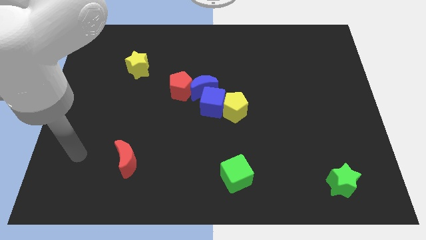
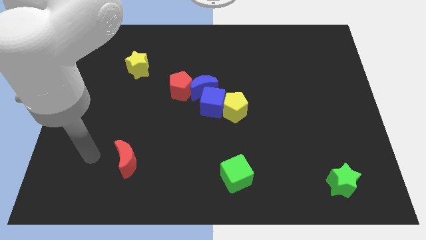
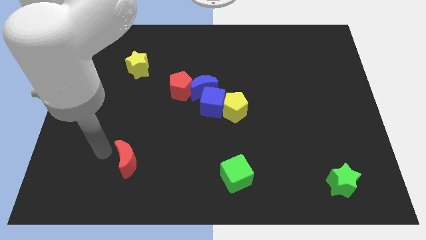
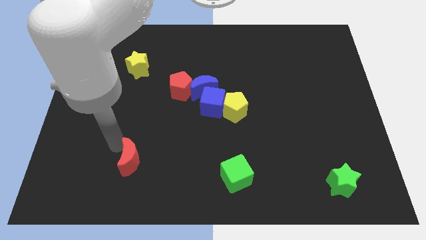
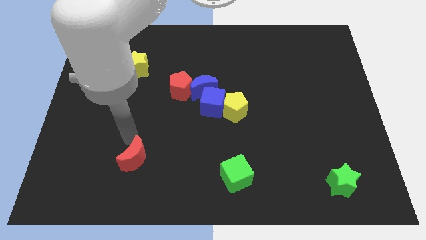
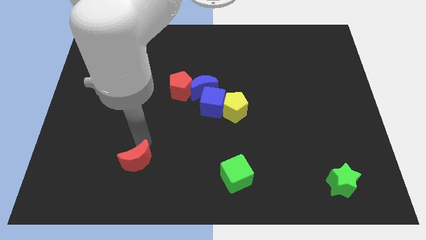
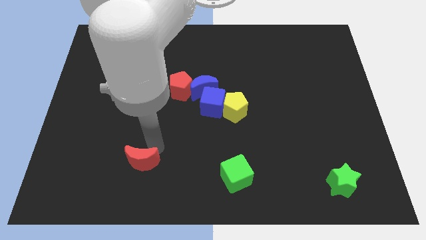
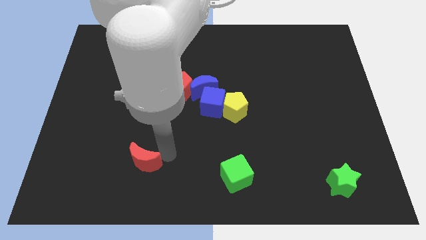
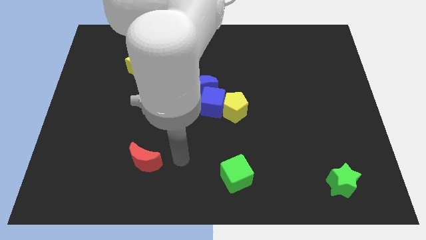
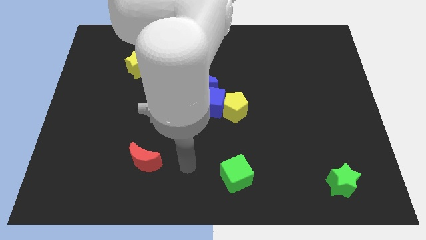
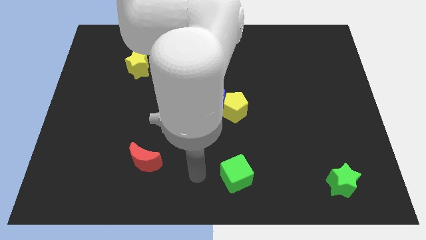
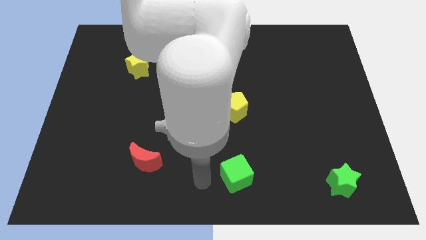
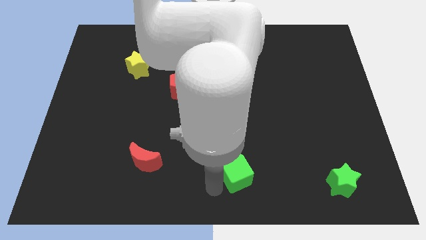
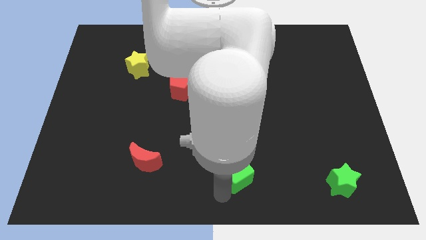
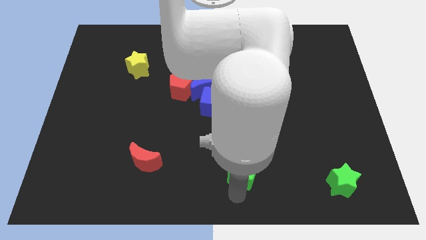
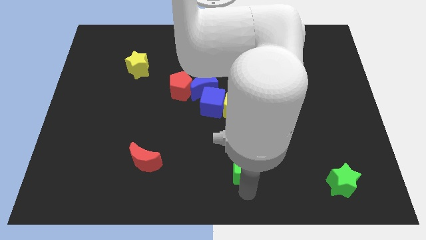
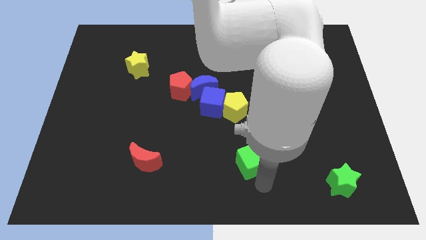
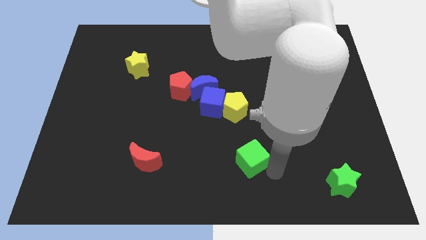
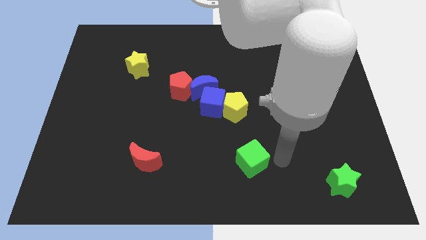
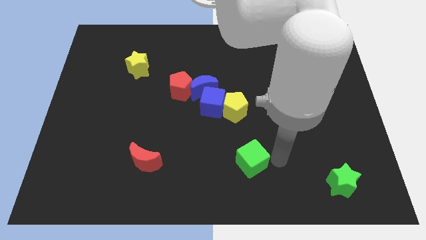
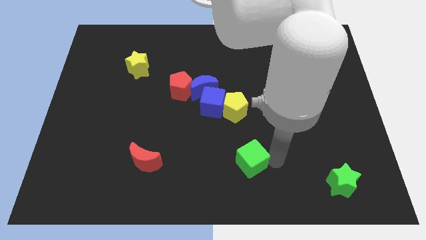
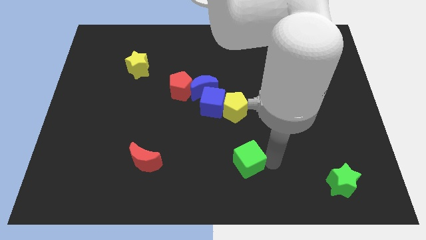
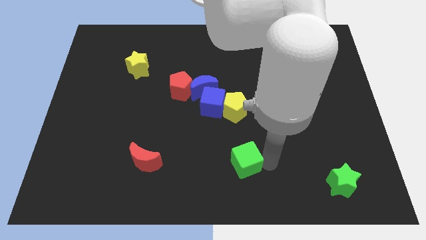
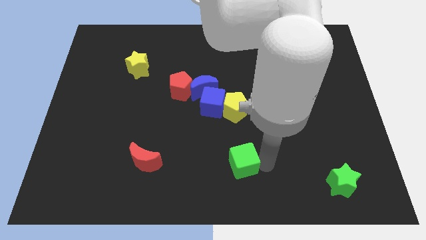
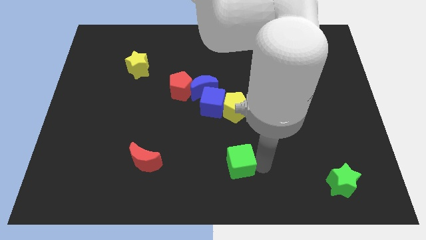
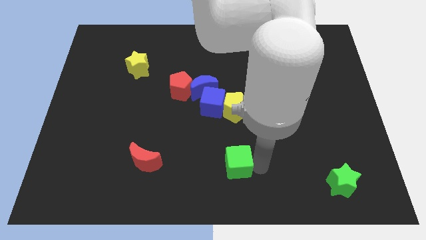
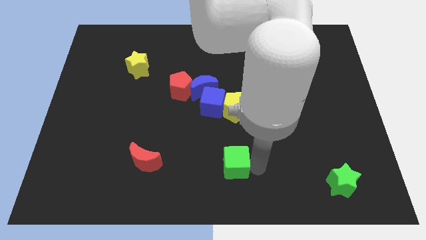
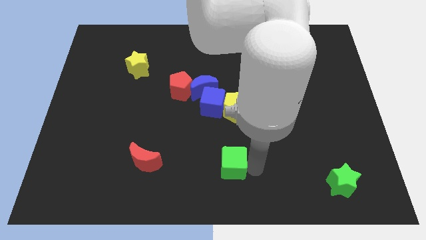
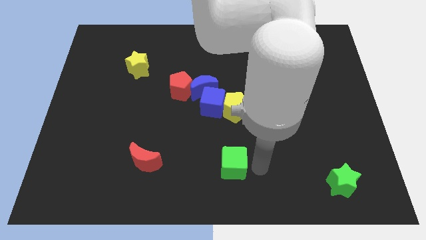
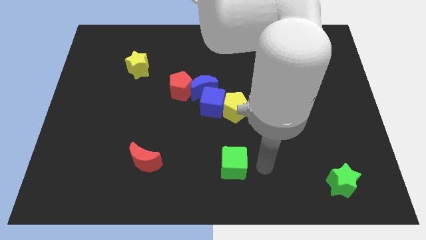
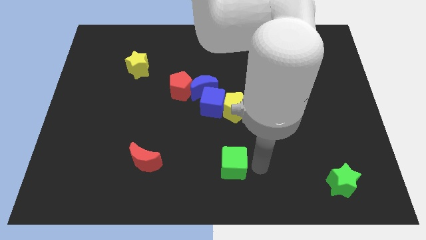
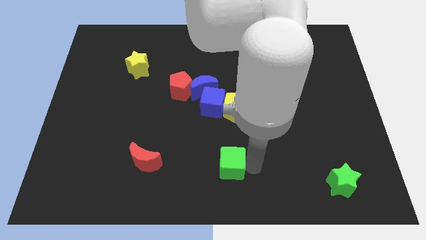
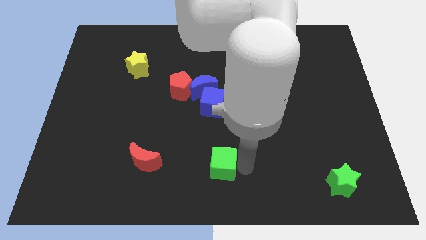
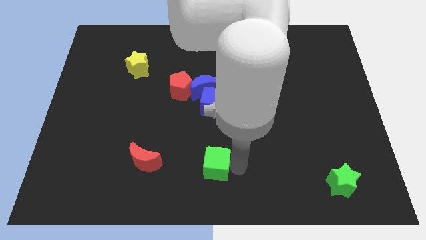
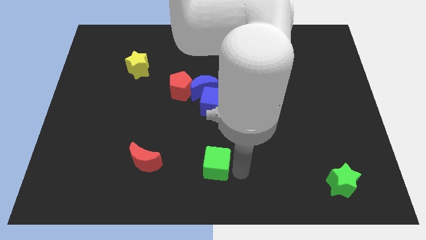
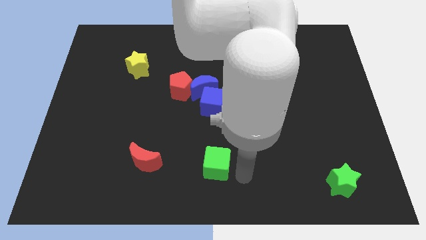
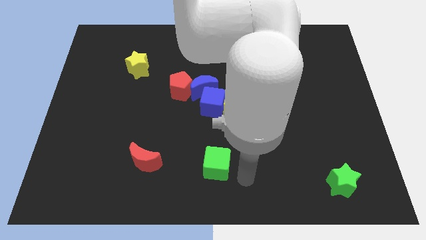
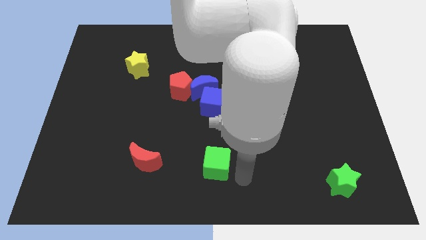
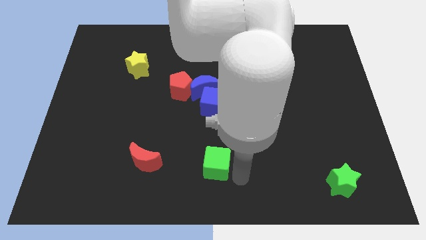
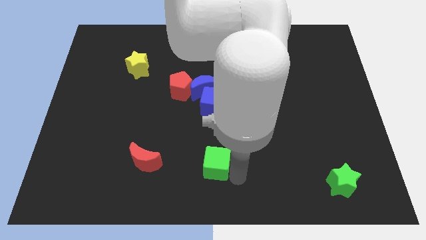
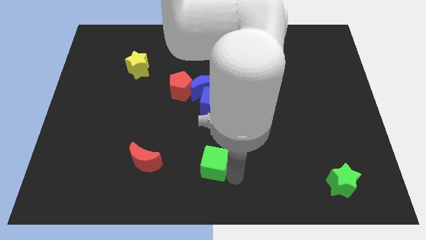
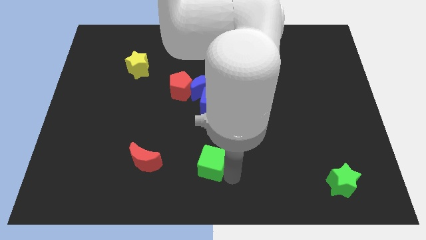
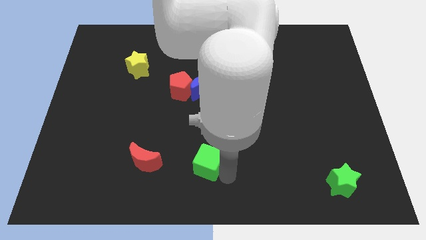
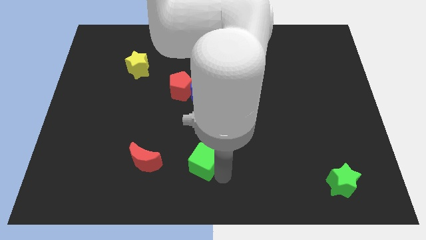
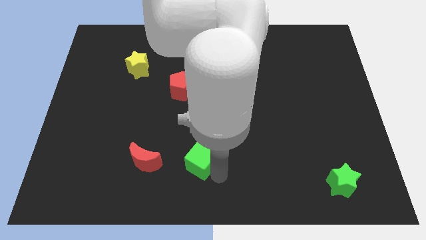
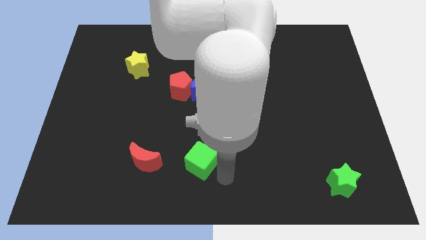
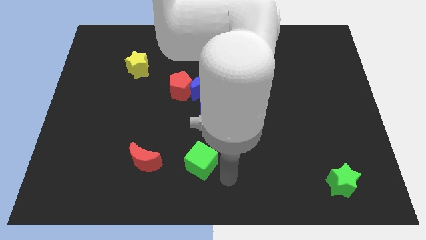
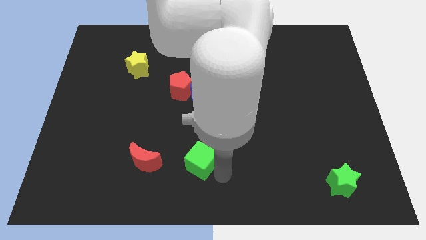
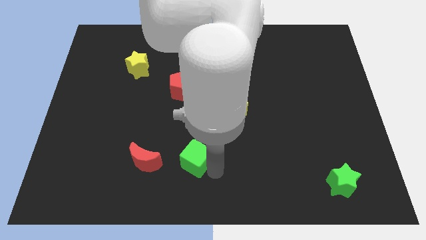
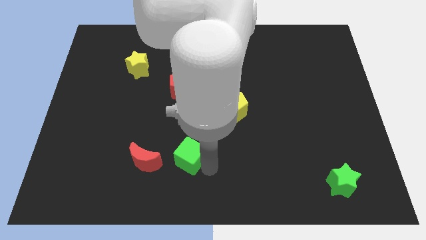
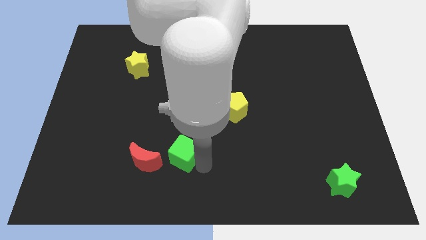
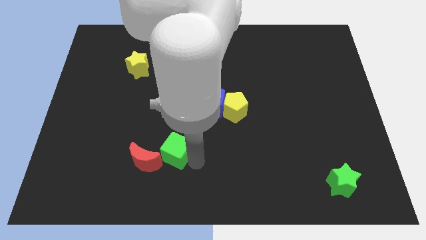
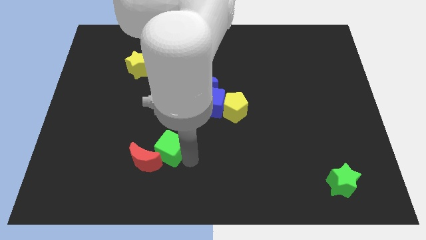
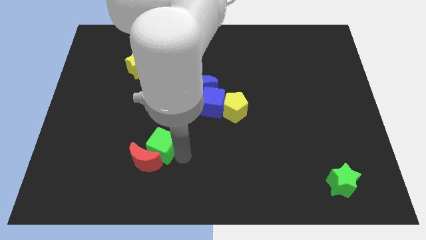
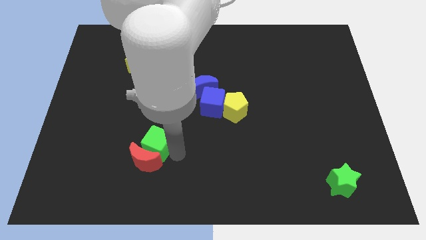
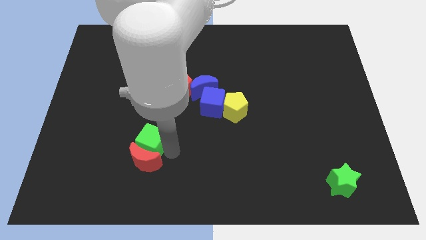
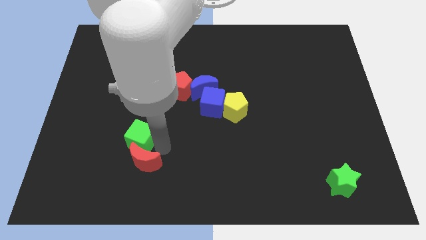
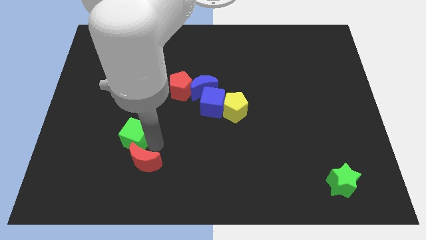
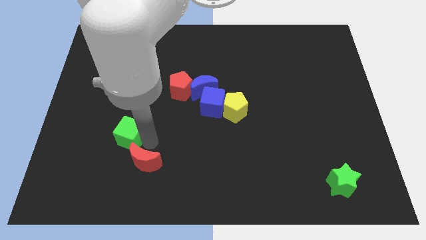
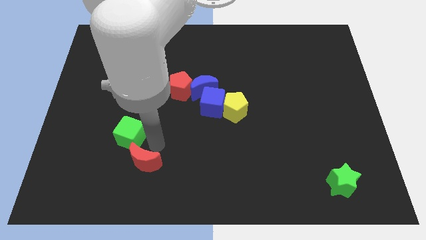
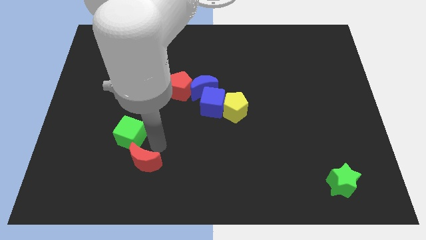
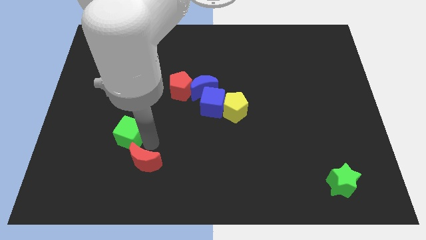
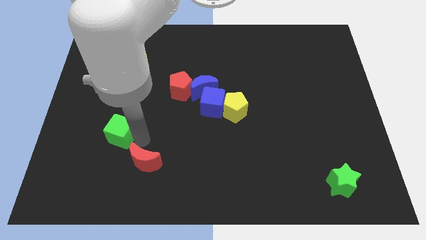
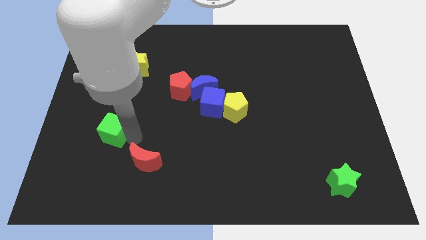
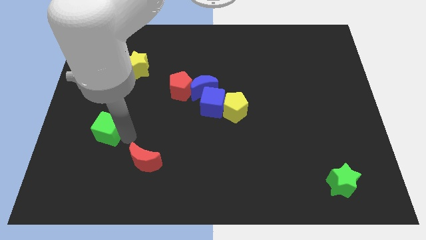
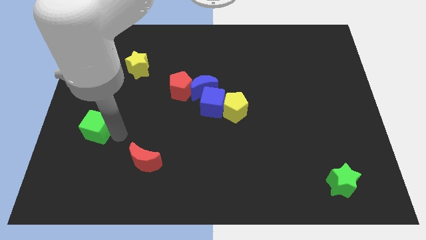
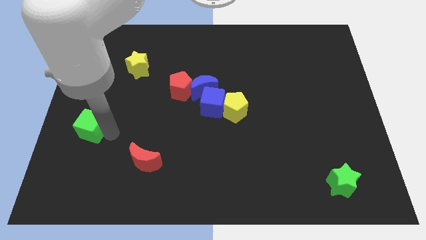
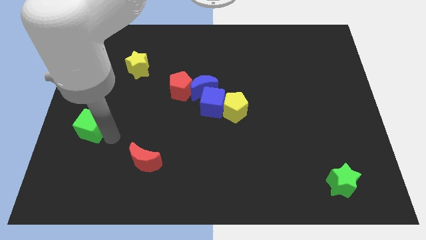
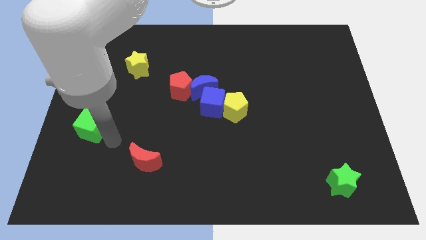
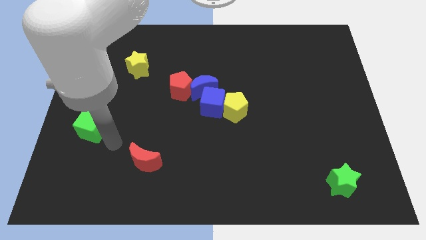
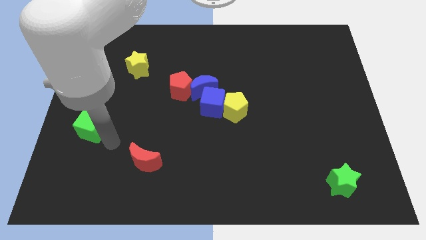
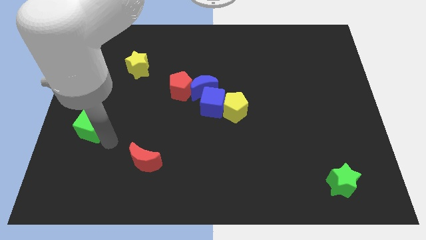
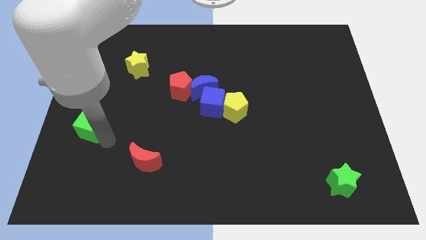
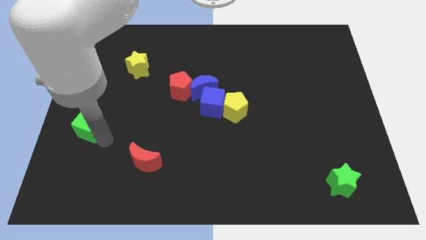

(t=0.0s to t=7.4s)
move the green cube to the left side
